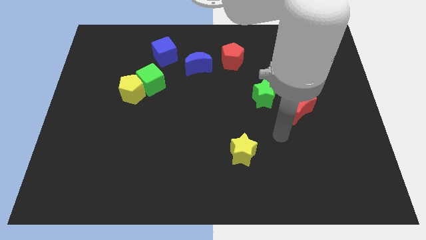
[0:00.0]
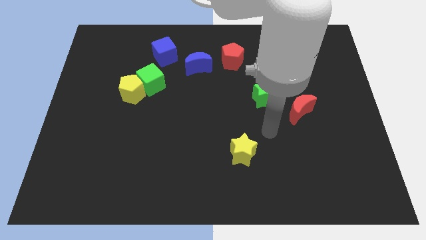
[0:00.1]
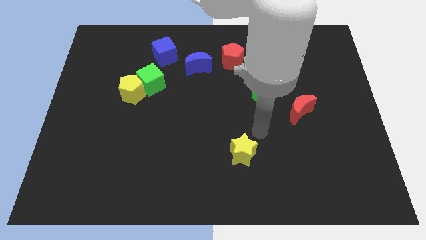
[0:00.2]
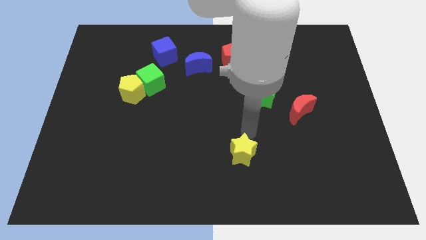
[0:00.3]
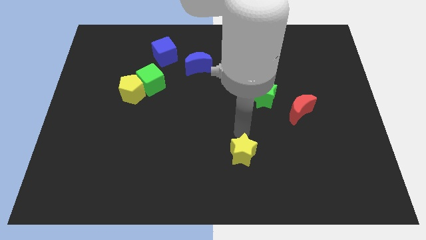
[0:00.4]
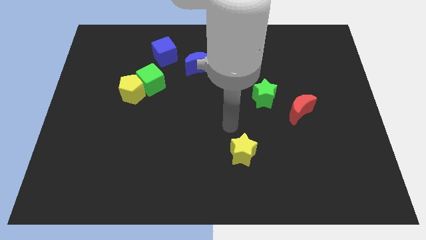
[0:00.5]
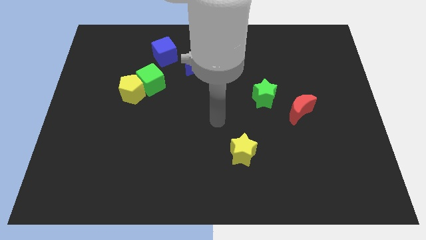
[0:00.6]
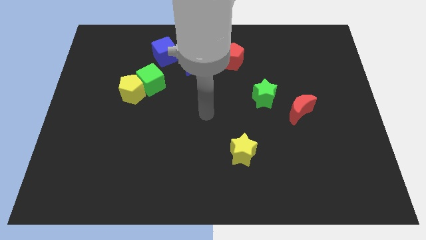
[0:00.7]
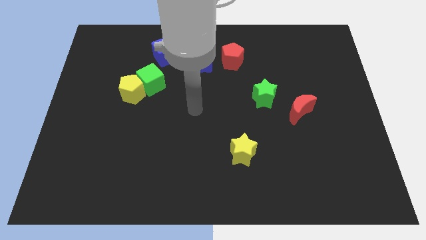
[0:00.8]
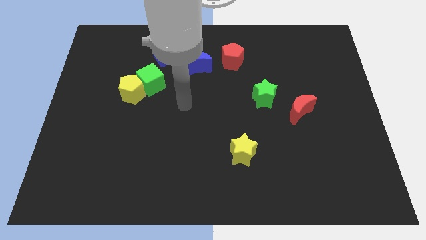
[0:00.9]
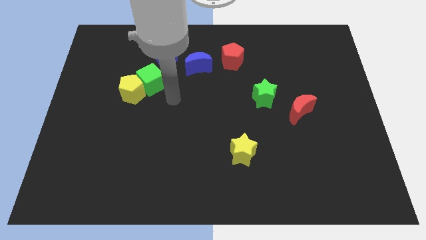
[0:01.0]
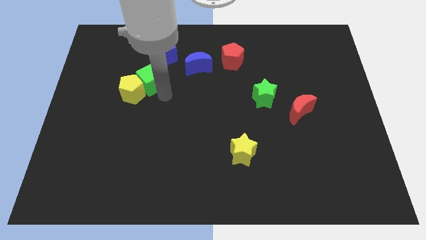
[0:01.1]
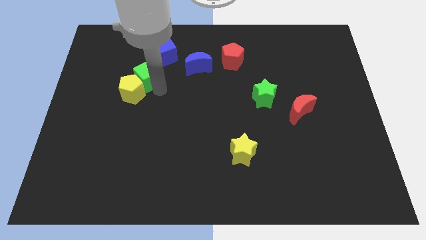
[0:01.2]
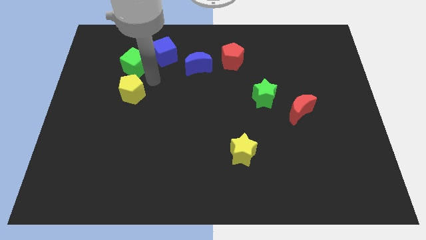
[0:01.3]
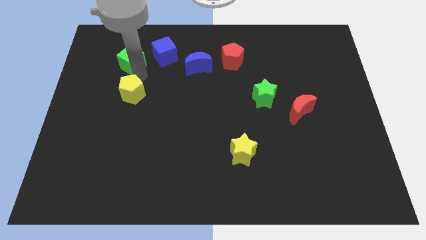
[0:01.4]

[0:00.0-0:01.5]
pull the yellow pentagon apart from the green cube

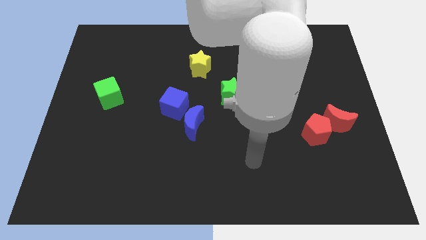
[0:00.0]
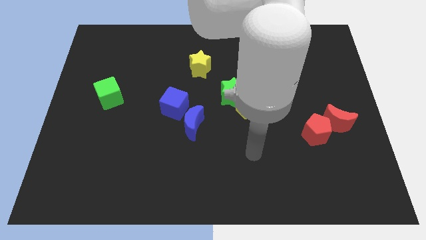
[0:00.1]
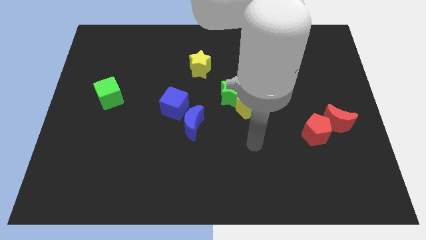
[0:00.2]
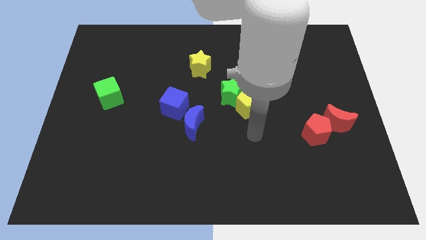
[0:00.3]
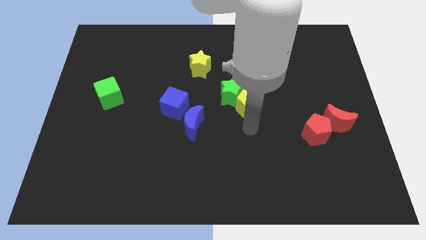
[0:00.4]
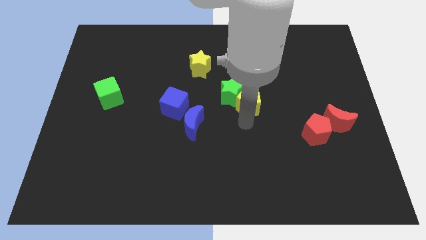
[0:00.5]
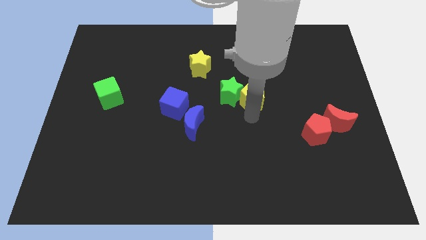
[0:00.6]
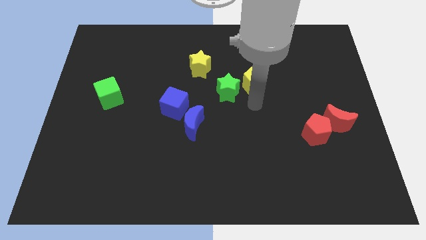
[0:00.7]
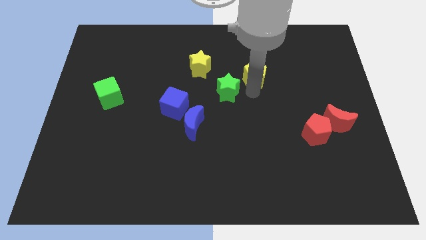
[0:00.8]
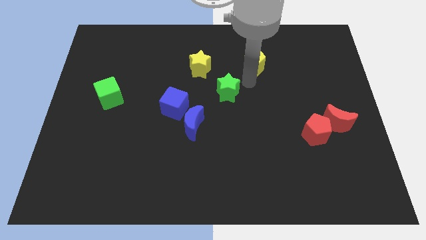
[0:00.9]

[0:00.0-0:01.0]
move the green star away from the yellow pentagon

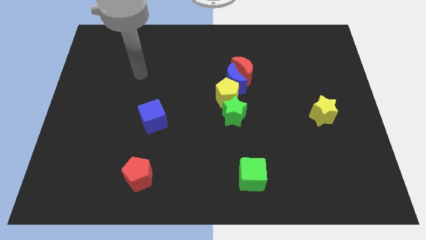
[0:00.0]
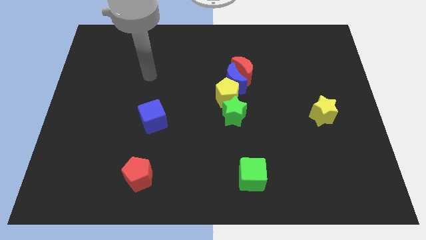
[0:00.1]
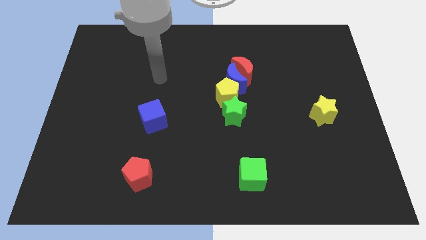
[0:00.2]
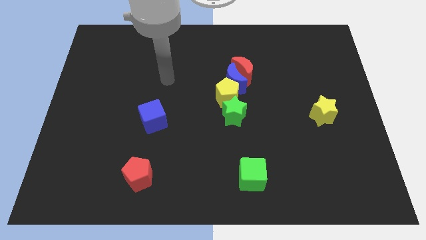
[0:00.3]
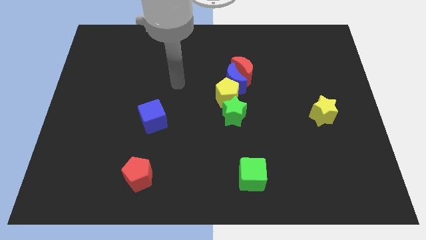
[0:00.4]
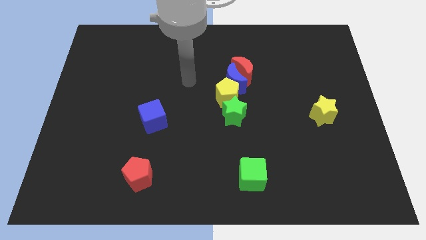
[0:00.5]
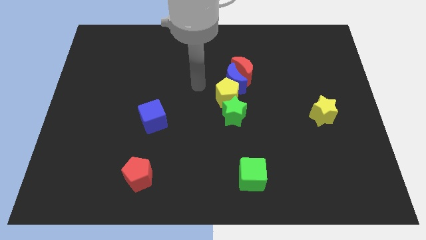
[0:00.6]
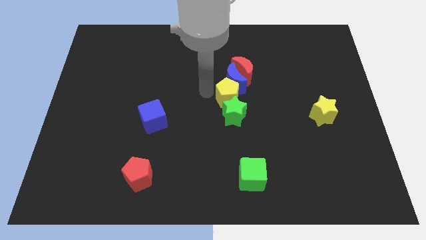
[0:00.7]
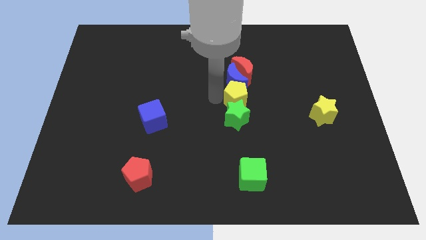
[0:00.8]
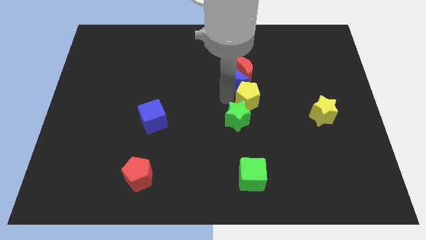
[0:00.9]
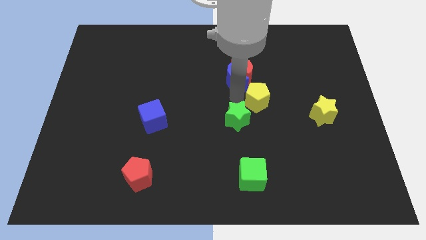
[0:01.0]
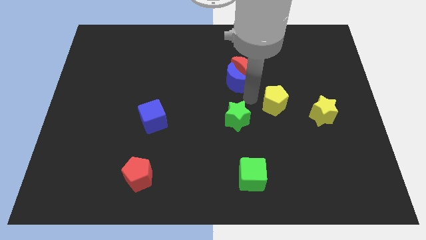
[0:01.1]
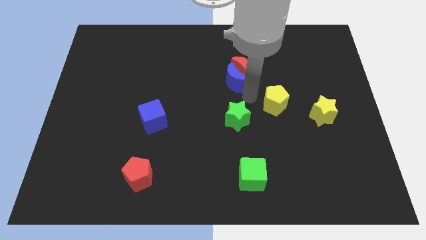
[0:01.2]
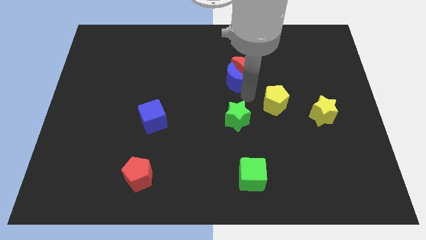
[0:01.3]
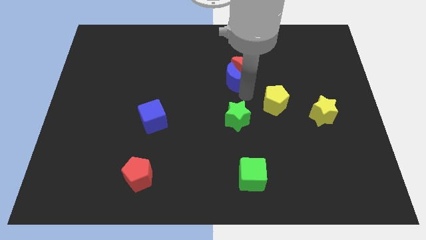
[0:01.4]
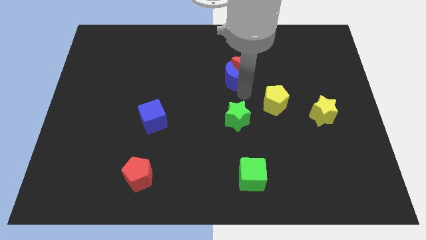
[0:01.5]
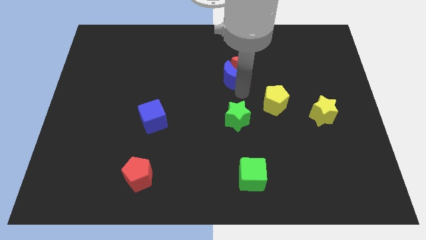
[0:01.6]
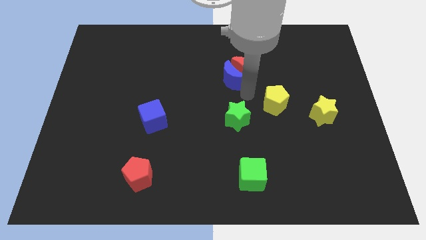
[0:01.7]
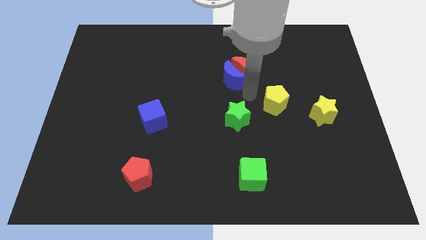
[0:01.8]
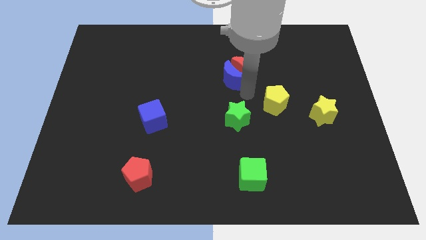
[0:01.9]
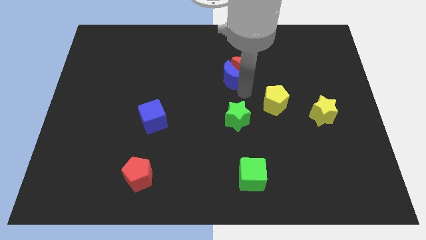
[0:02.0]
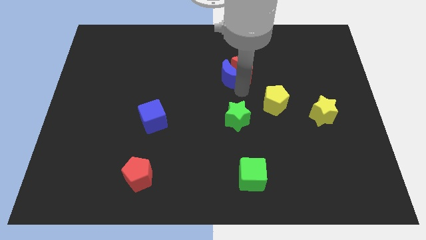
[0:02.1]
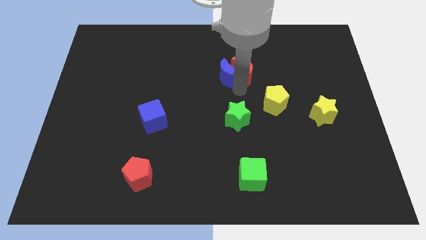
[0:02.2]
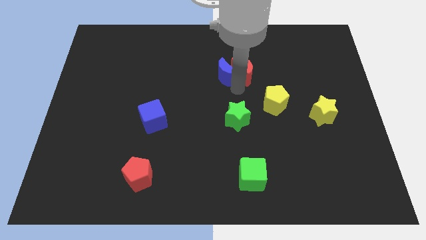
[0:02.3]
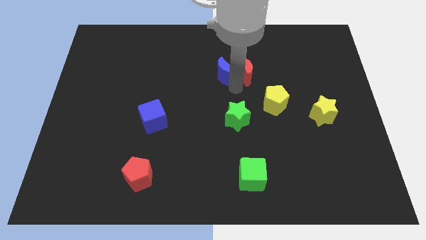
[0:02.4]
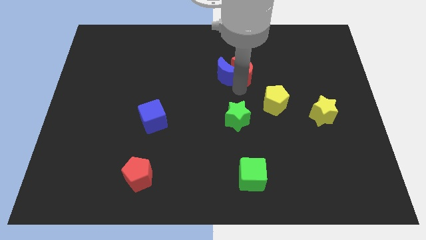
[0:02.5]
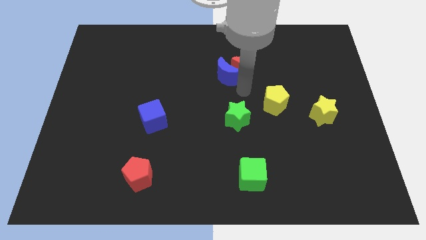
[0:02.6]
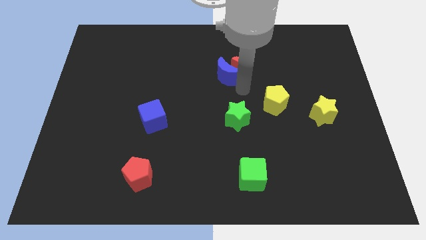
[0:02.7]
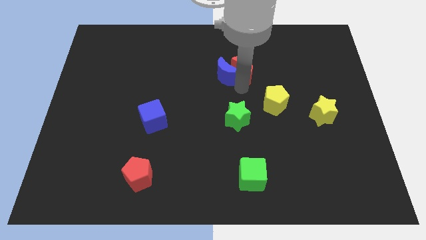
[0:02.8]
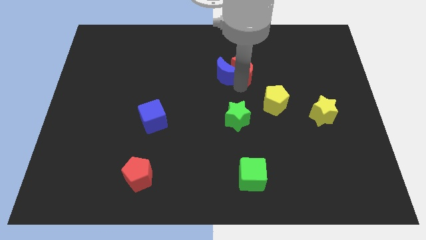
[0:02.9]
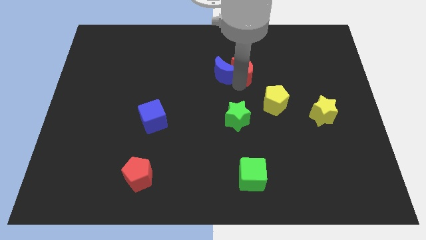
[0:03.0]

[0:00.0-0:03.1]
pull the blue moon apart from the group of blocks

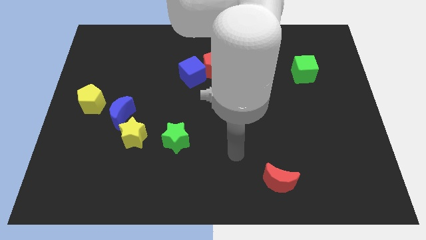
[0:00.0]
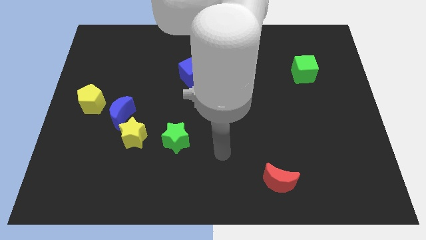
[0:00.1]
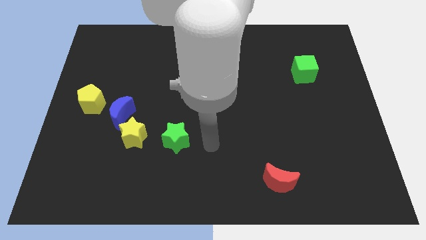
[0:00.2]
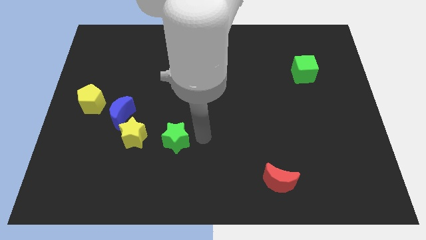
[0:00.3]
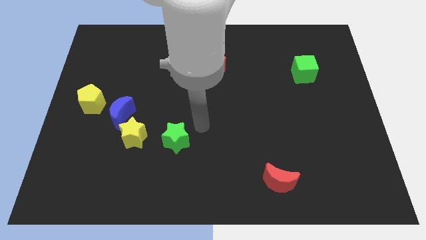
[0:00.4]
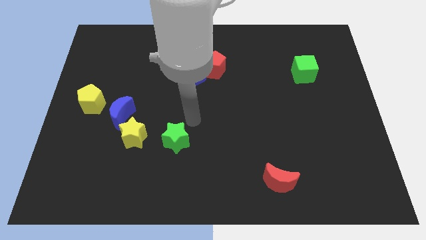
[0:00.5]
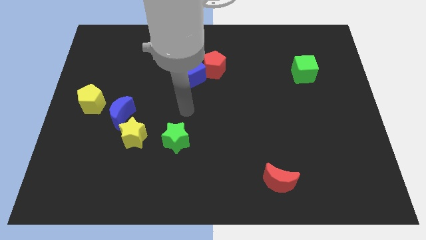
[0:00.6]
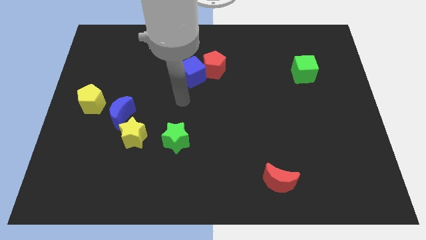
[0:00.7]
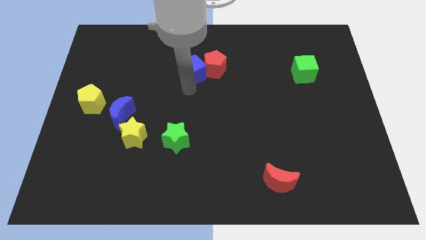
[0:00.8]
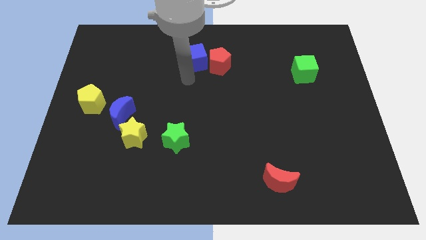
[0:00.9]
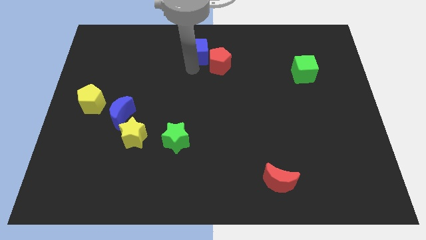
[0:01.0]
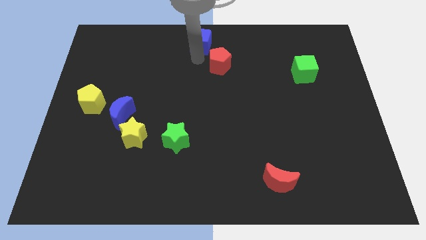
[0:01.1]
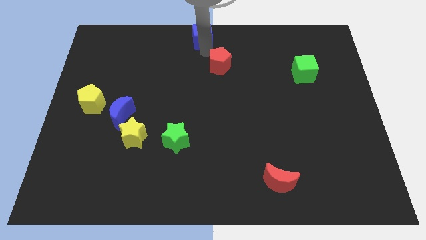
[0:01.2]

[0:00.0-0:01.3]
separate the red pentagon from the blue cube

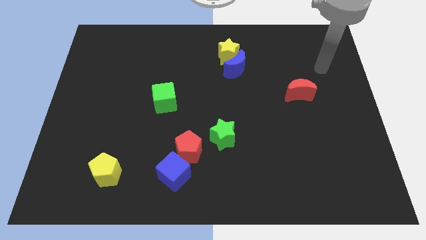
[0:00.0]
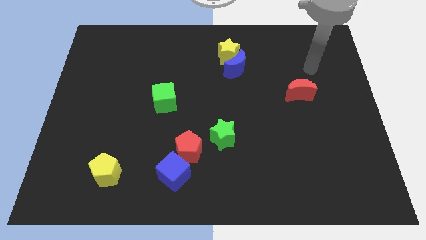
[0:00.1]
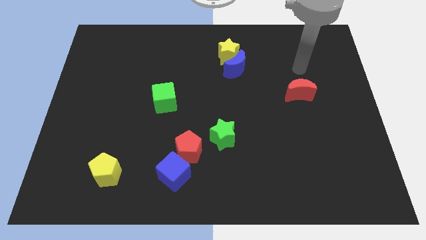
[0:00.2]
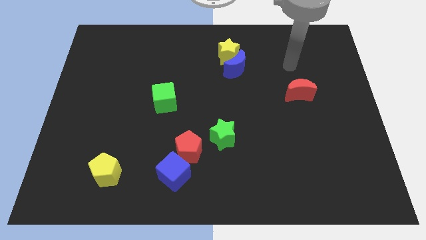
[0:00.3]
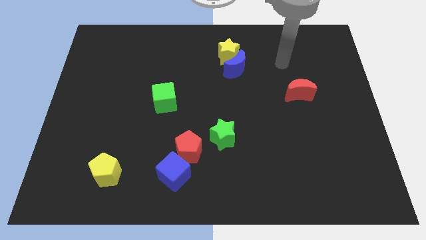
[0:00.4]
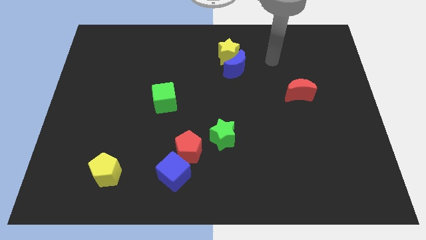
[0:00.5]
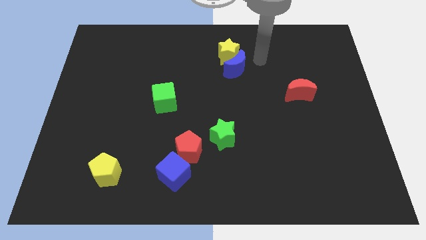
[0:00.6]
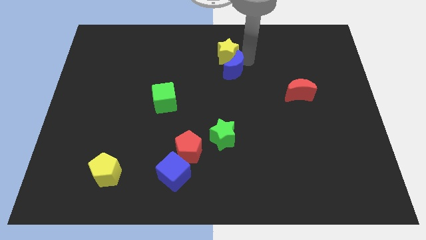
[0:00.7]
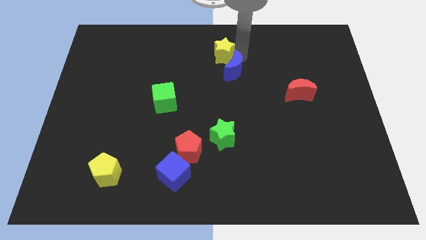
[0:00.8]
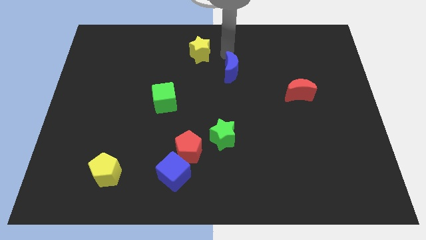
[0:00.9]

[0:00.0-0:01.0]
separate the blue moon from the yellow star

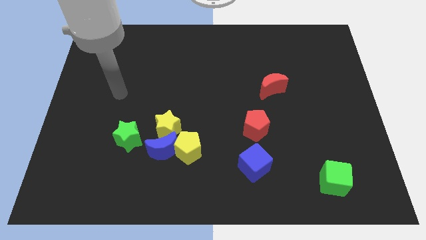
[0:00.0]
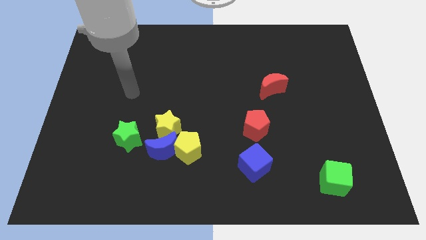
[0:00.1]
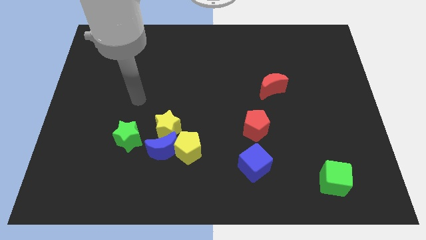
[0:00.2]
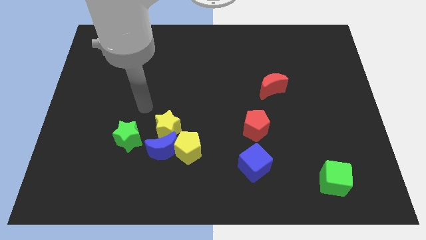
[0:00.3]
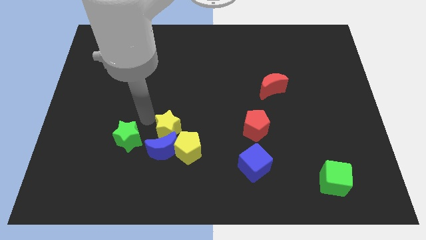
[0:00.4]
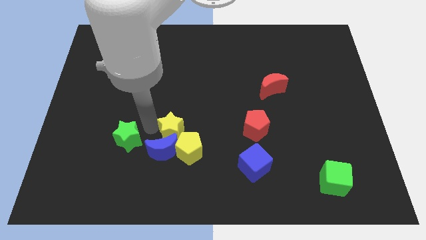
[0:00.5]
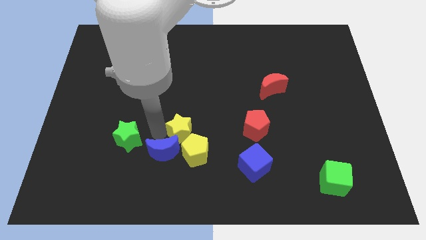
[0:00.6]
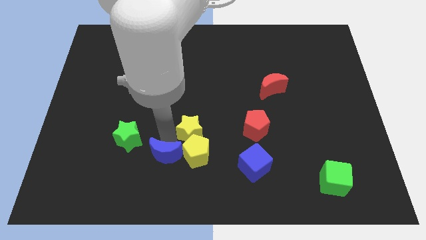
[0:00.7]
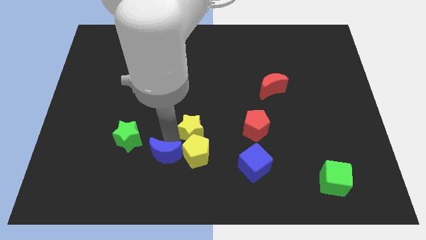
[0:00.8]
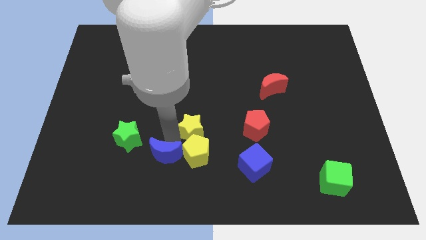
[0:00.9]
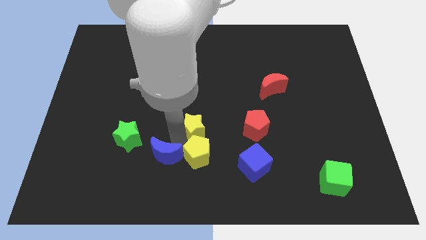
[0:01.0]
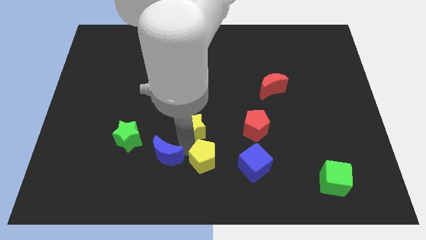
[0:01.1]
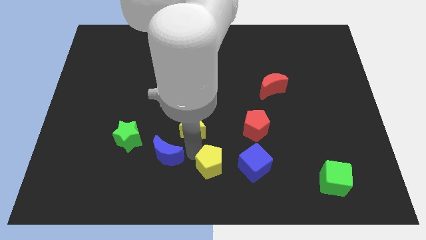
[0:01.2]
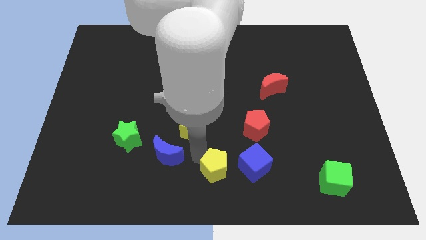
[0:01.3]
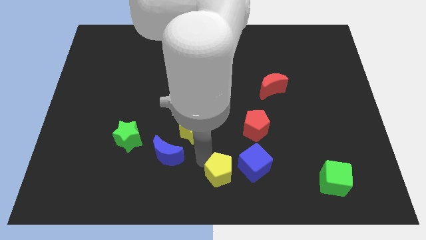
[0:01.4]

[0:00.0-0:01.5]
pull the yellow pentagon apart from the blue moon and yellow star
